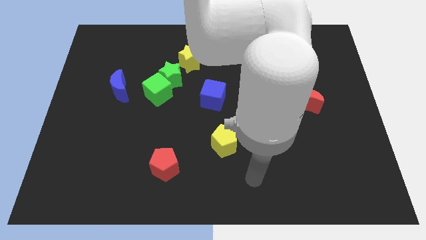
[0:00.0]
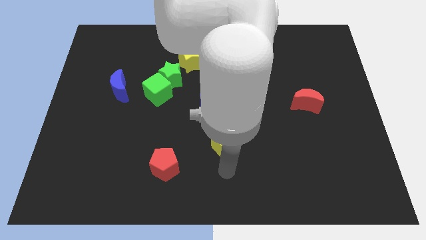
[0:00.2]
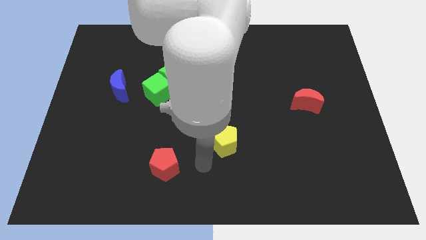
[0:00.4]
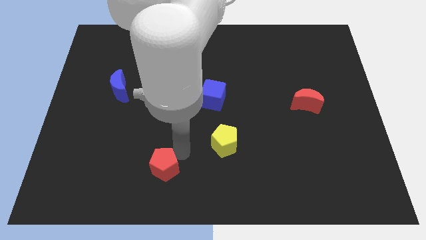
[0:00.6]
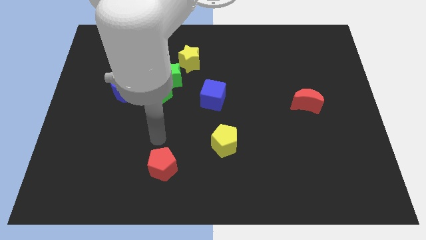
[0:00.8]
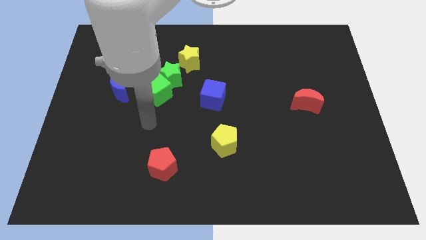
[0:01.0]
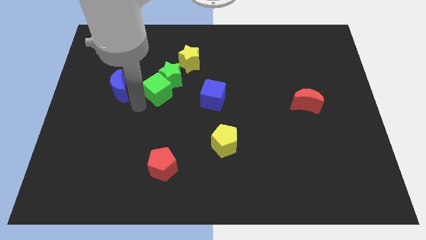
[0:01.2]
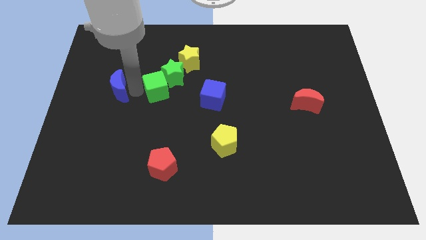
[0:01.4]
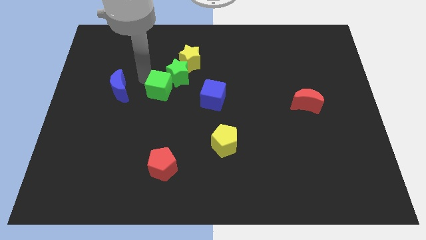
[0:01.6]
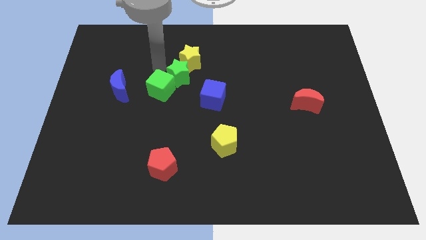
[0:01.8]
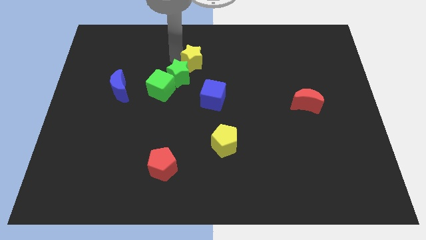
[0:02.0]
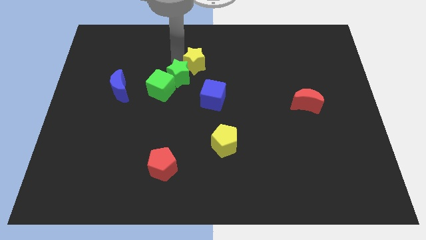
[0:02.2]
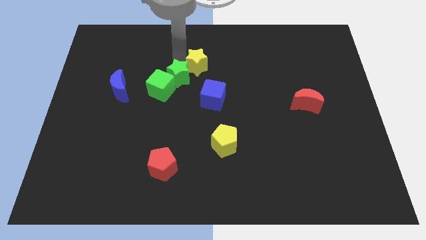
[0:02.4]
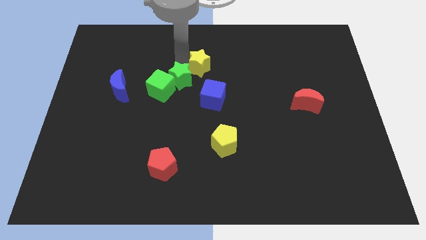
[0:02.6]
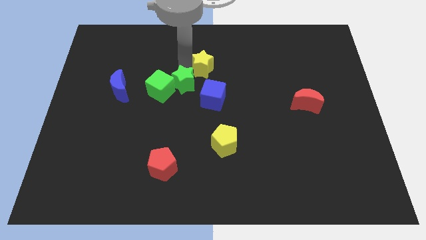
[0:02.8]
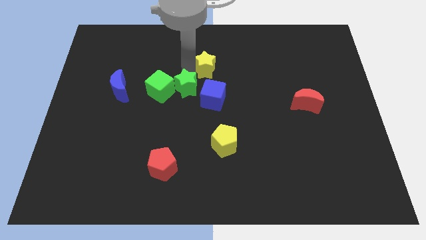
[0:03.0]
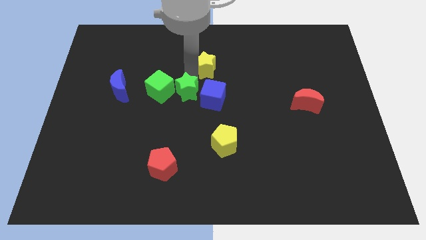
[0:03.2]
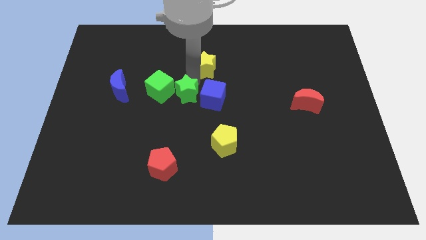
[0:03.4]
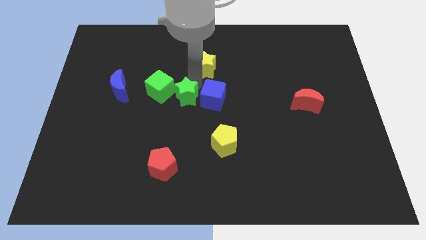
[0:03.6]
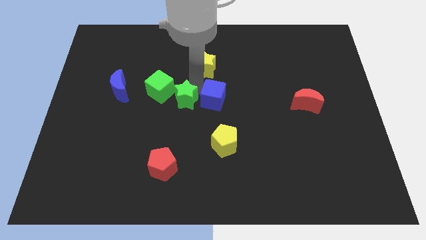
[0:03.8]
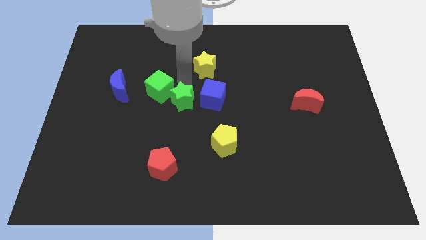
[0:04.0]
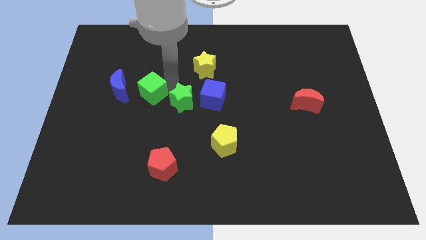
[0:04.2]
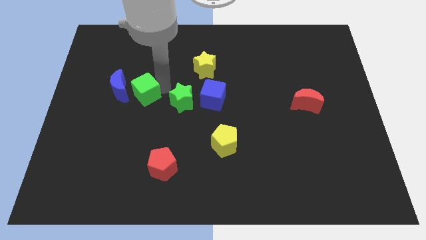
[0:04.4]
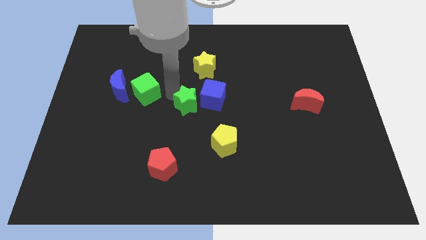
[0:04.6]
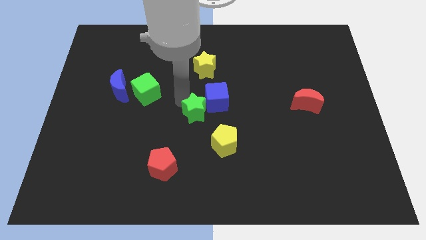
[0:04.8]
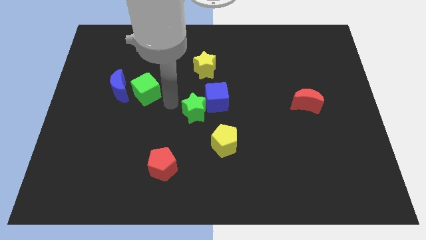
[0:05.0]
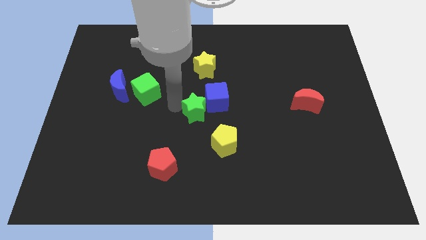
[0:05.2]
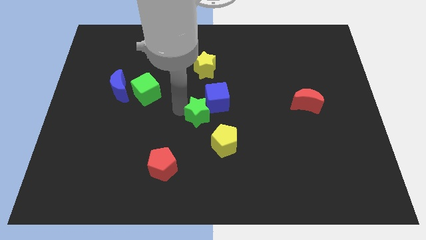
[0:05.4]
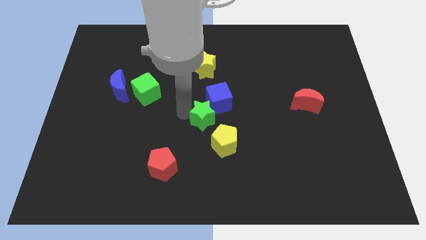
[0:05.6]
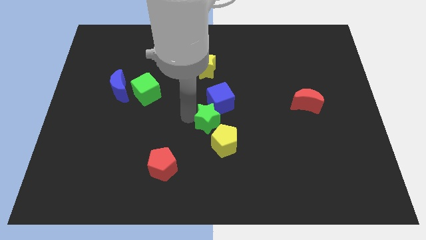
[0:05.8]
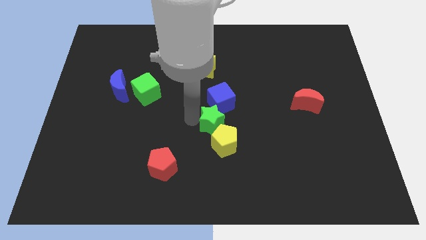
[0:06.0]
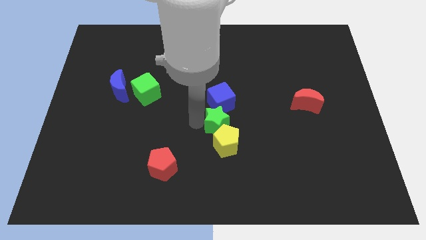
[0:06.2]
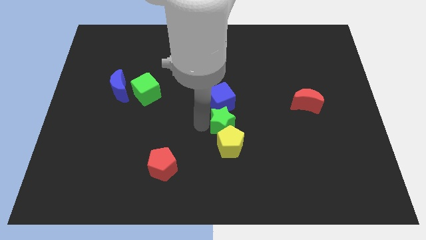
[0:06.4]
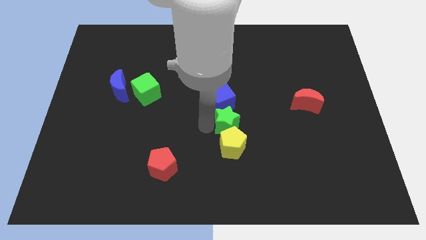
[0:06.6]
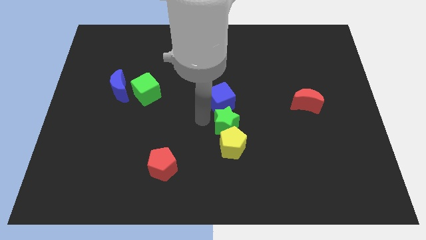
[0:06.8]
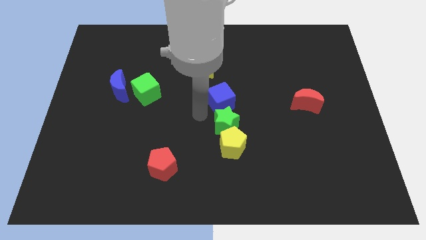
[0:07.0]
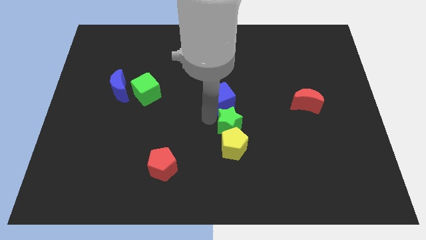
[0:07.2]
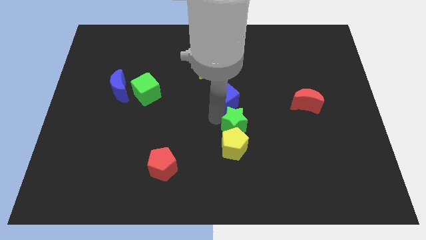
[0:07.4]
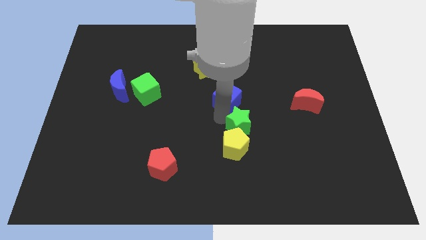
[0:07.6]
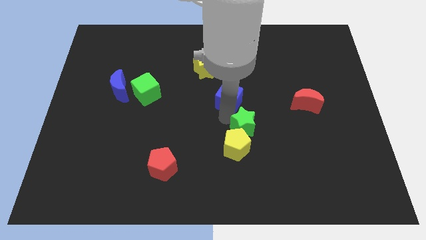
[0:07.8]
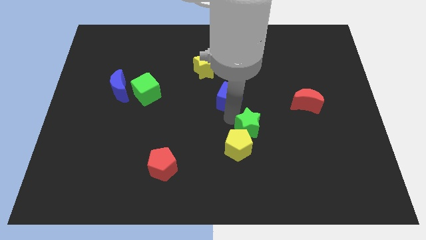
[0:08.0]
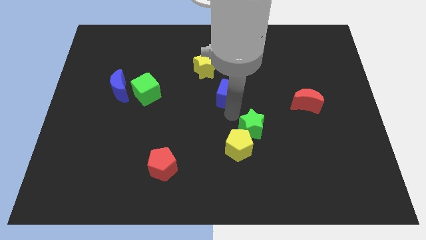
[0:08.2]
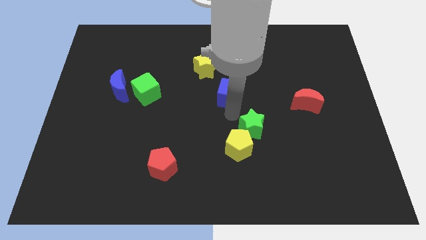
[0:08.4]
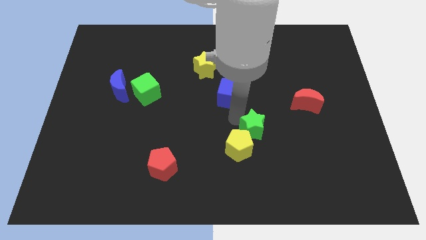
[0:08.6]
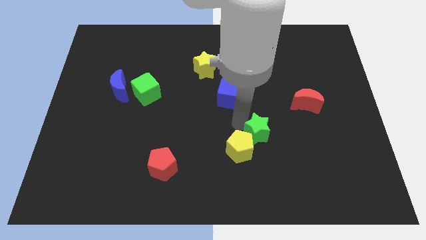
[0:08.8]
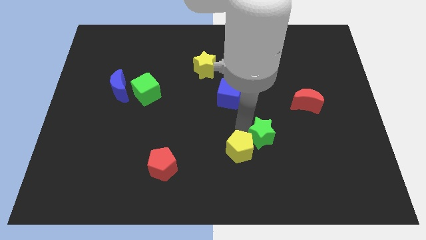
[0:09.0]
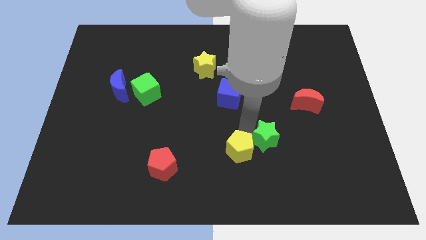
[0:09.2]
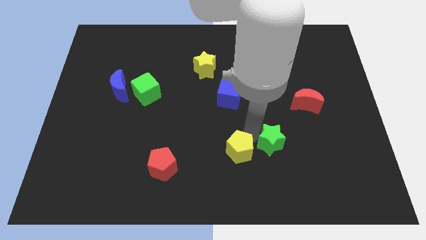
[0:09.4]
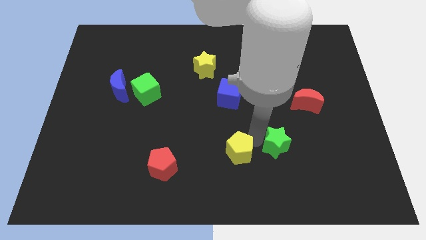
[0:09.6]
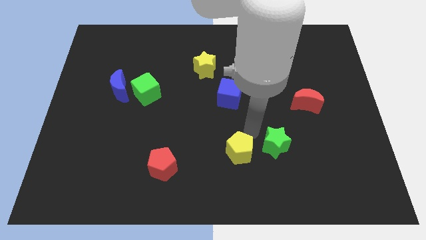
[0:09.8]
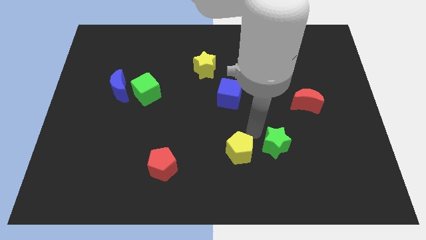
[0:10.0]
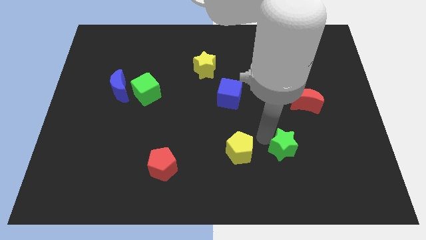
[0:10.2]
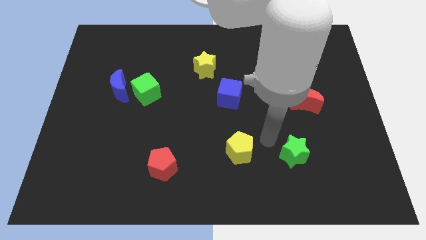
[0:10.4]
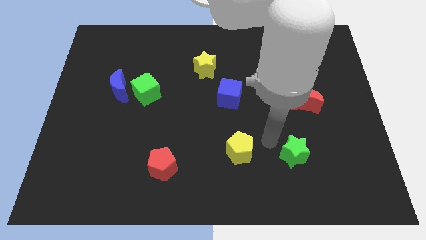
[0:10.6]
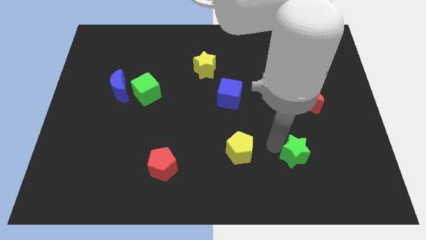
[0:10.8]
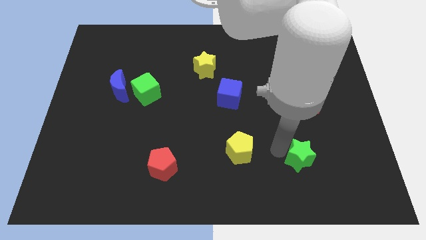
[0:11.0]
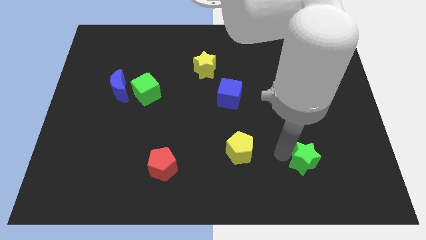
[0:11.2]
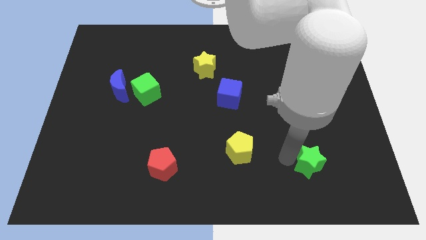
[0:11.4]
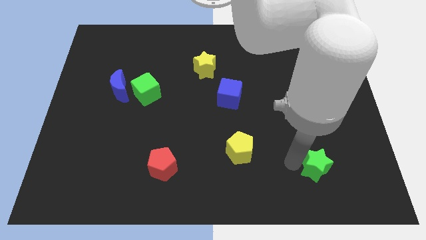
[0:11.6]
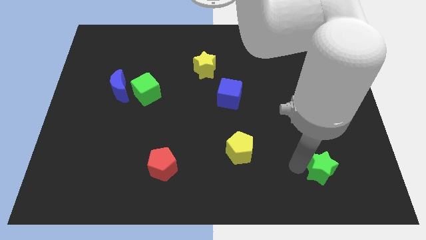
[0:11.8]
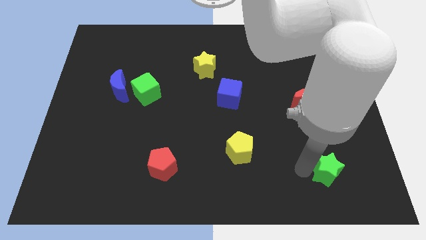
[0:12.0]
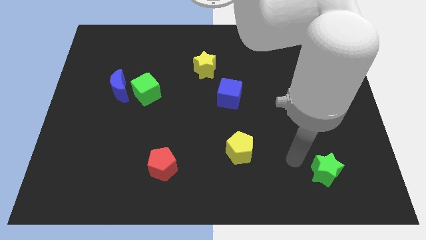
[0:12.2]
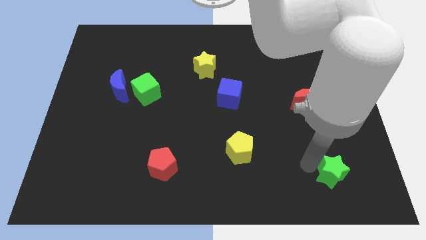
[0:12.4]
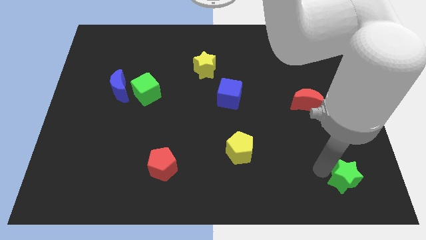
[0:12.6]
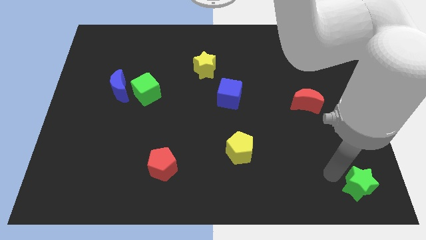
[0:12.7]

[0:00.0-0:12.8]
move the green star to the bottom right corner
